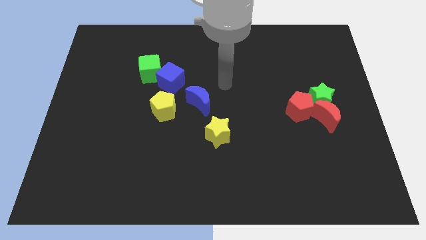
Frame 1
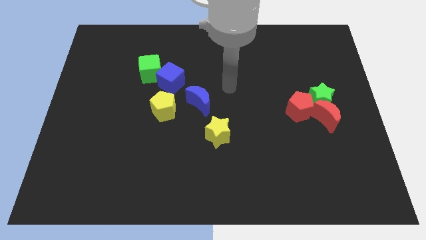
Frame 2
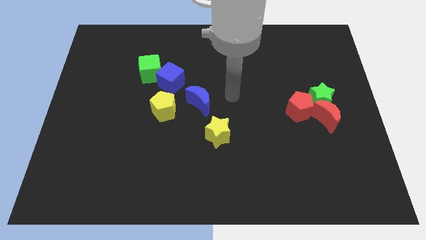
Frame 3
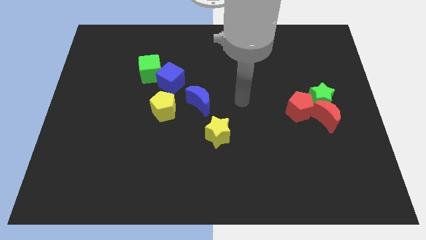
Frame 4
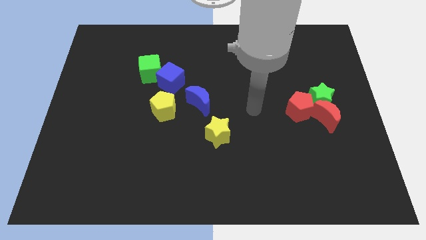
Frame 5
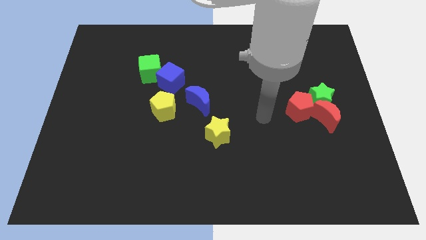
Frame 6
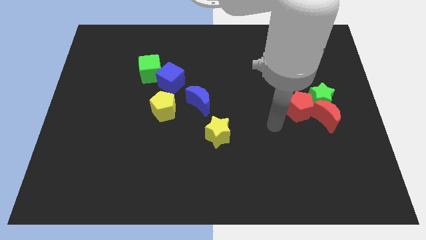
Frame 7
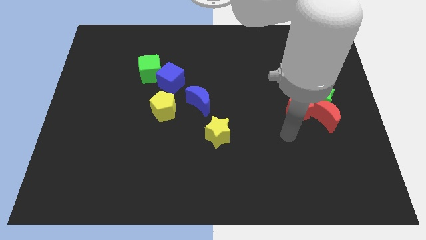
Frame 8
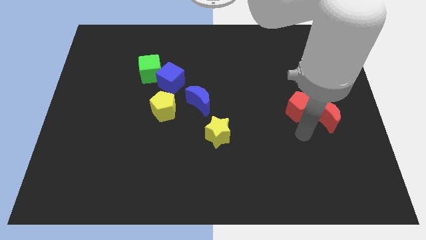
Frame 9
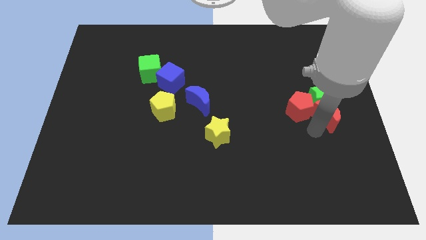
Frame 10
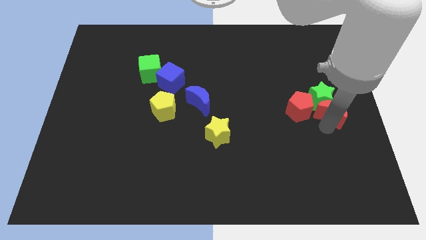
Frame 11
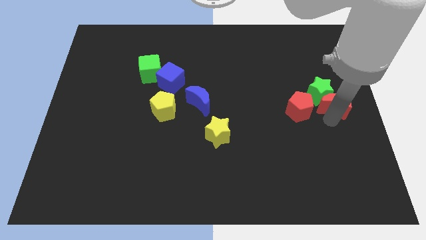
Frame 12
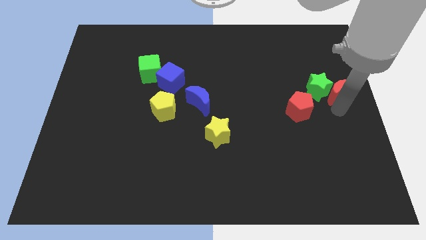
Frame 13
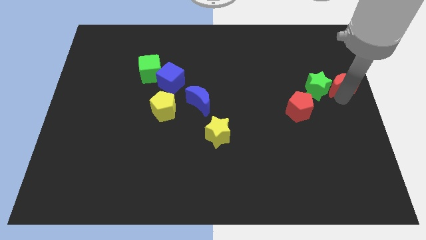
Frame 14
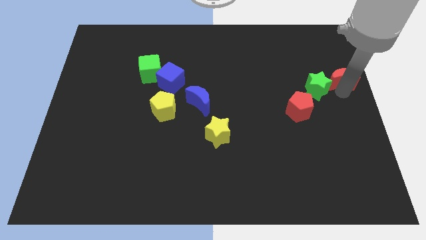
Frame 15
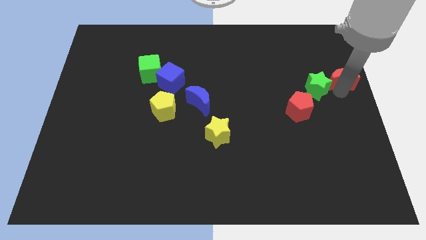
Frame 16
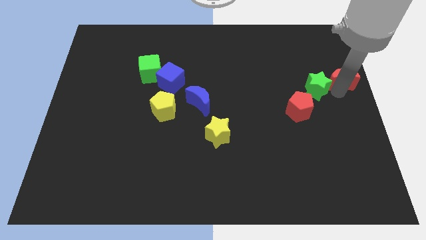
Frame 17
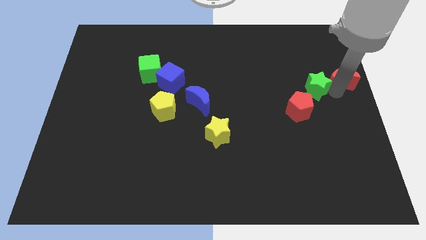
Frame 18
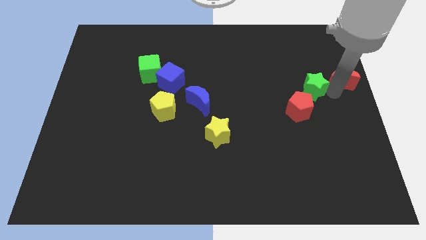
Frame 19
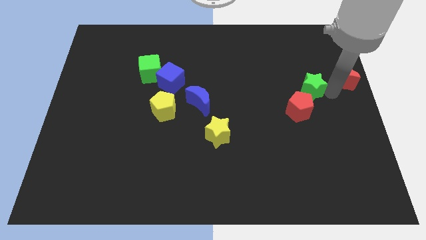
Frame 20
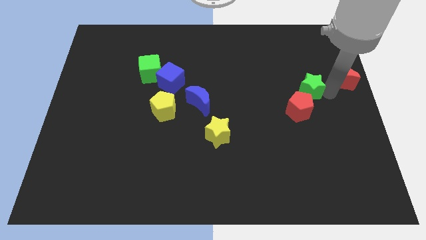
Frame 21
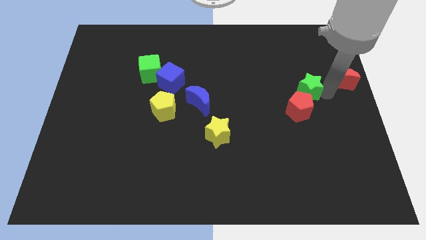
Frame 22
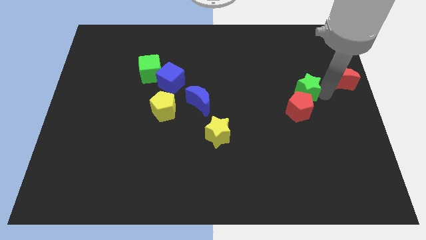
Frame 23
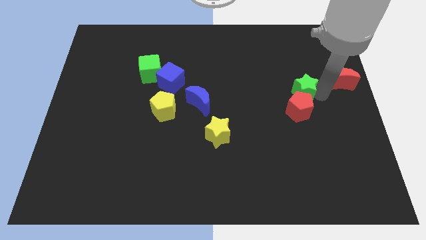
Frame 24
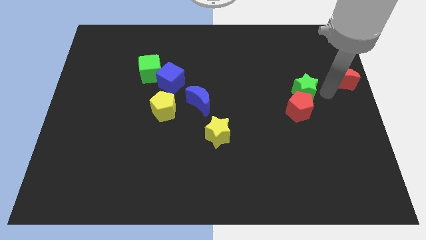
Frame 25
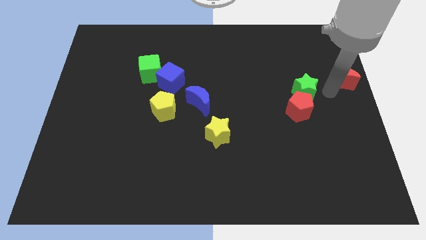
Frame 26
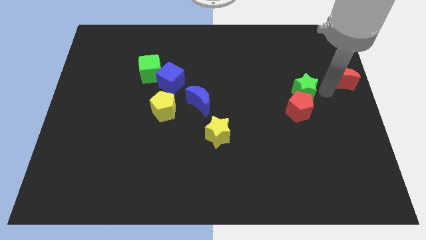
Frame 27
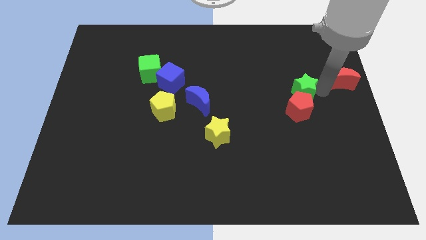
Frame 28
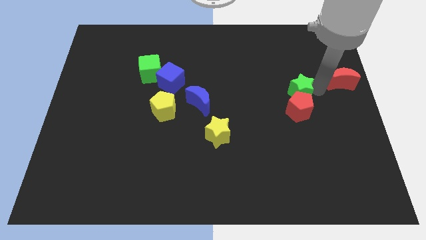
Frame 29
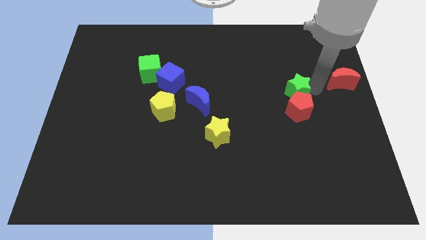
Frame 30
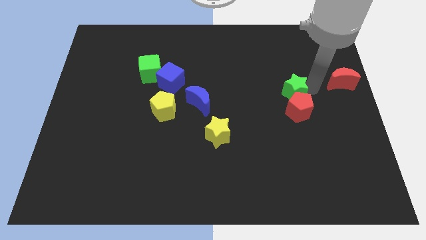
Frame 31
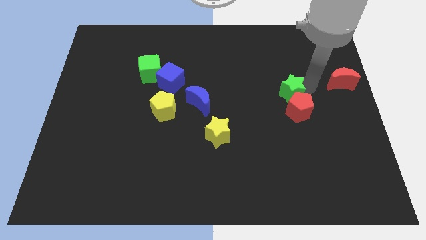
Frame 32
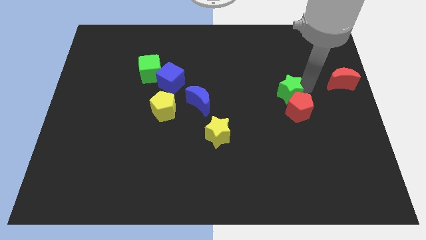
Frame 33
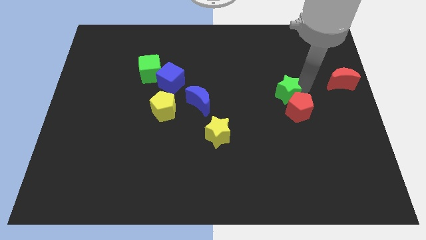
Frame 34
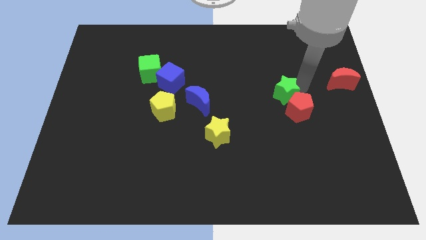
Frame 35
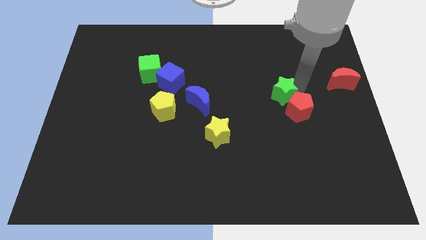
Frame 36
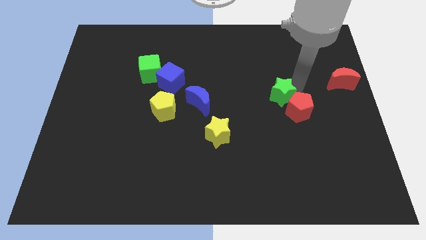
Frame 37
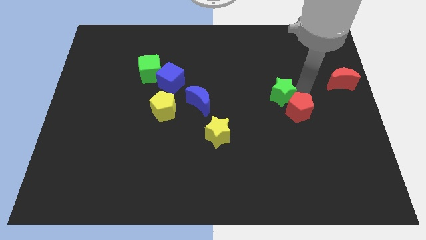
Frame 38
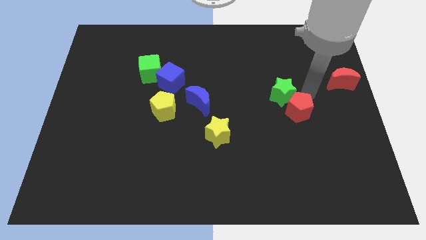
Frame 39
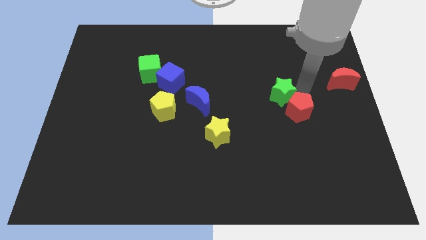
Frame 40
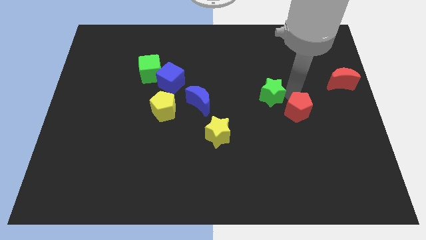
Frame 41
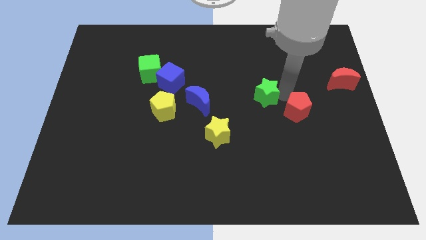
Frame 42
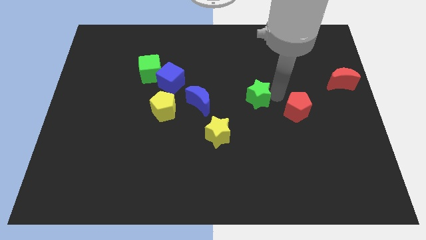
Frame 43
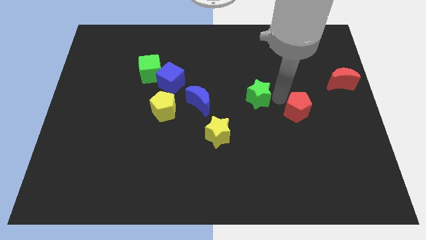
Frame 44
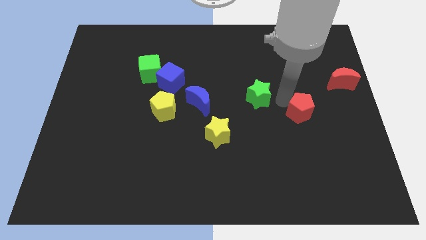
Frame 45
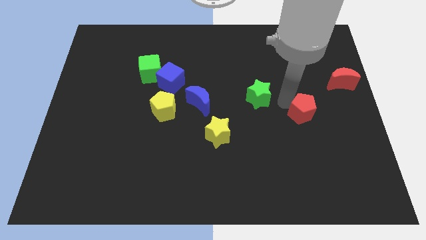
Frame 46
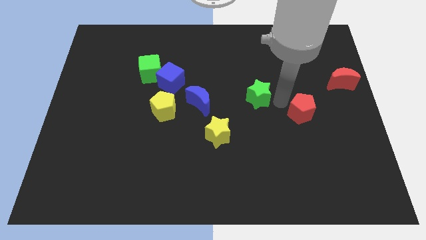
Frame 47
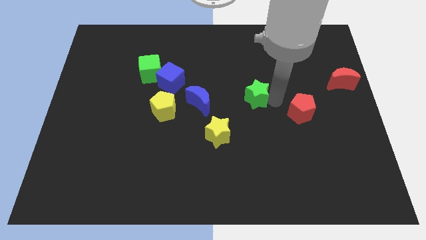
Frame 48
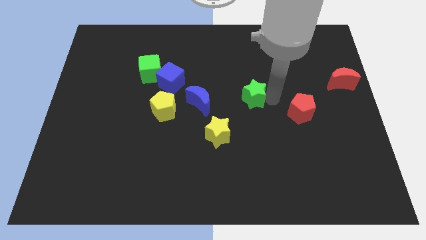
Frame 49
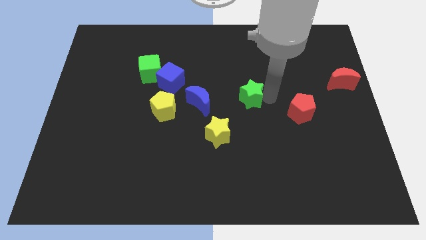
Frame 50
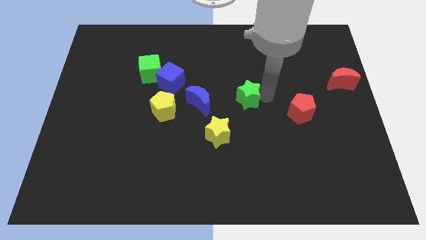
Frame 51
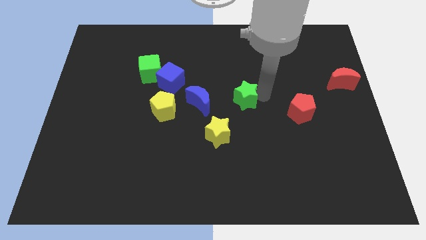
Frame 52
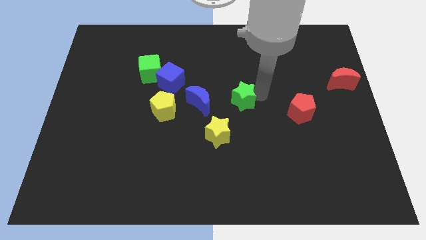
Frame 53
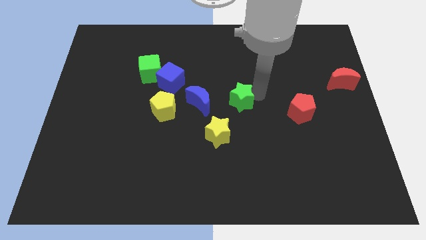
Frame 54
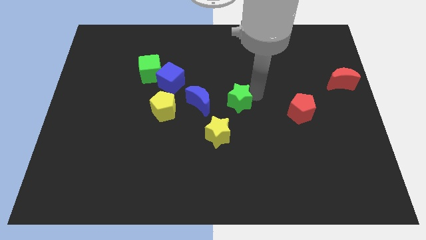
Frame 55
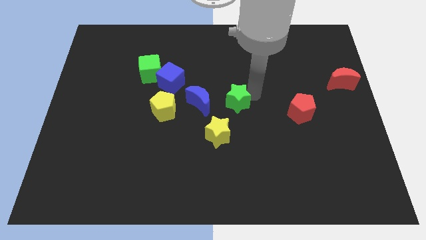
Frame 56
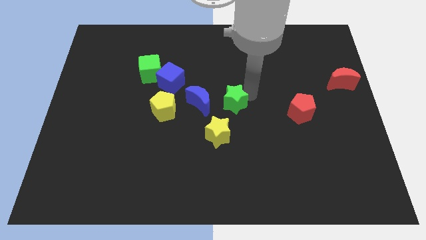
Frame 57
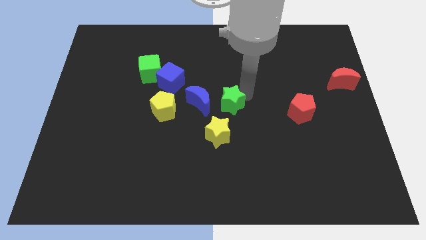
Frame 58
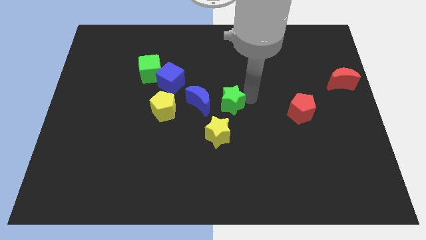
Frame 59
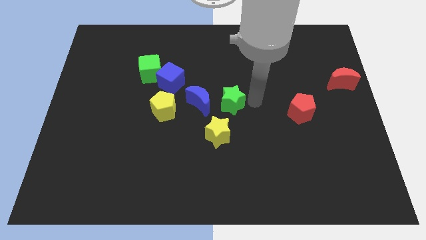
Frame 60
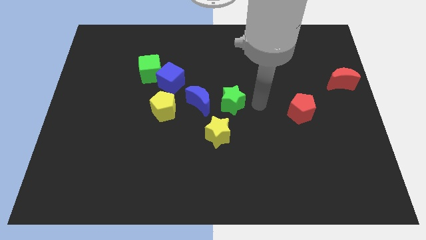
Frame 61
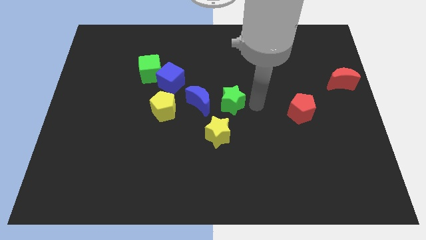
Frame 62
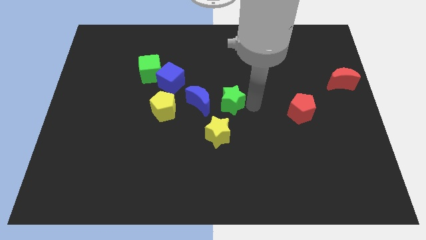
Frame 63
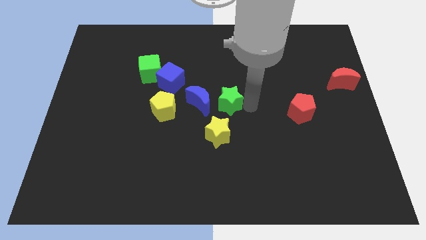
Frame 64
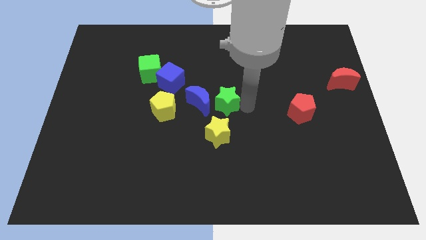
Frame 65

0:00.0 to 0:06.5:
put the green star close to the blue moon
